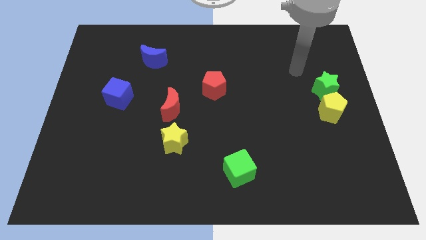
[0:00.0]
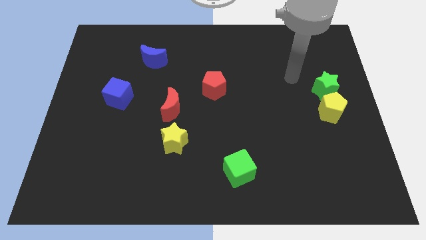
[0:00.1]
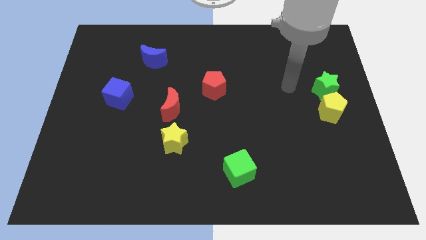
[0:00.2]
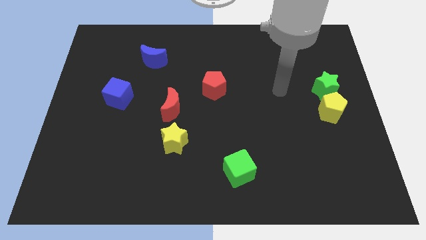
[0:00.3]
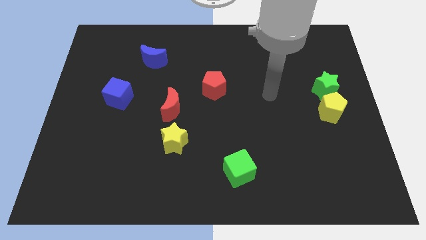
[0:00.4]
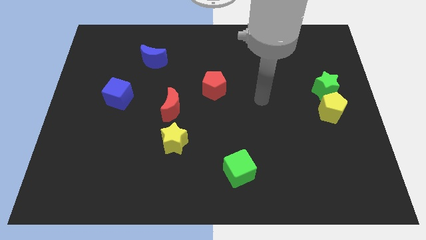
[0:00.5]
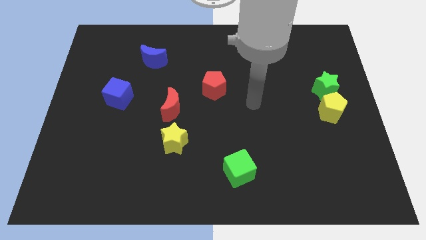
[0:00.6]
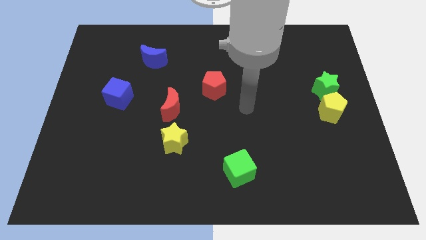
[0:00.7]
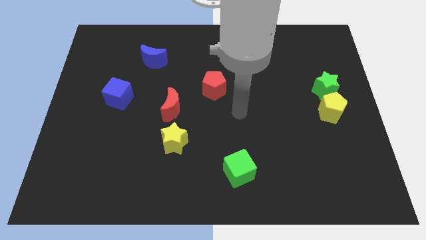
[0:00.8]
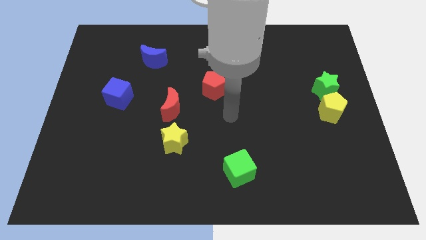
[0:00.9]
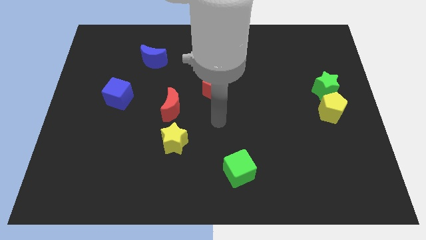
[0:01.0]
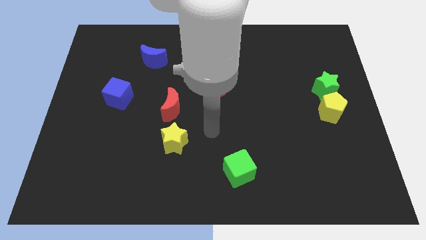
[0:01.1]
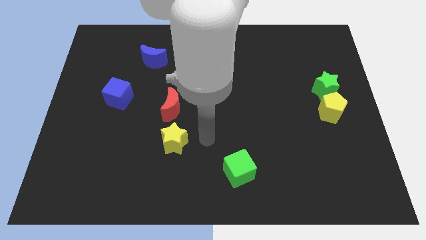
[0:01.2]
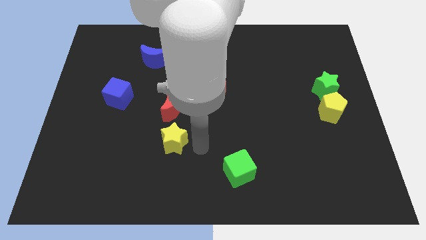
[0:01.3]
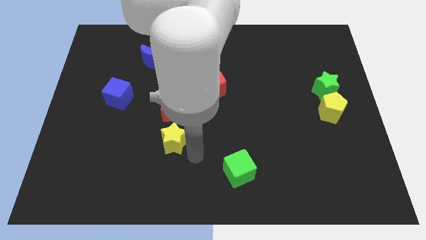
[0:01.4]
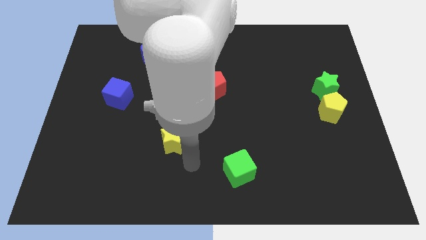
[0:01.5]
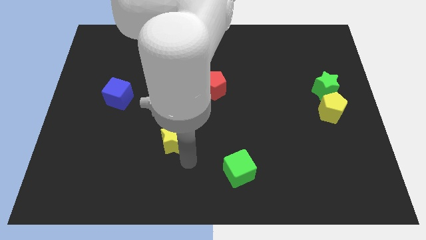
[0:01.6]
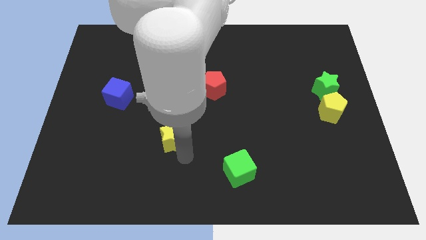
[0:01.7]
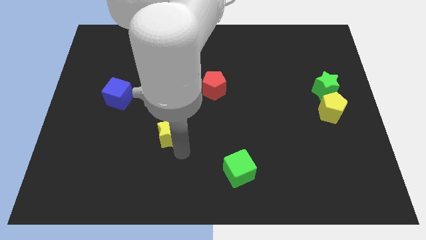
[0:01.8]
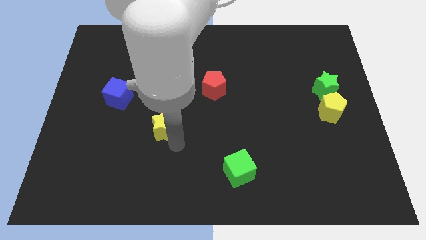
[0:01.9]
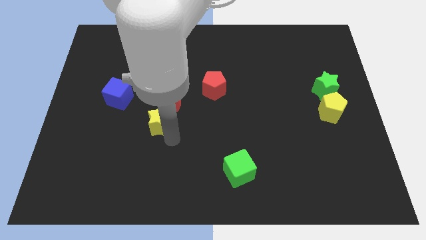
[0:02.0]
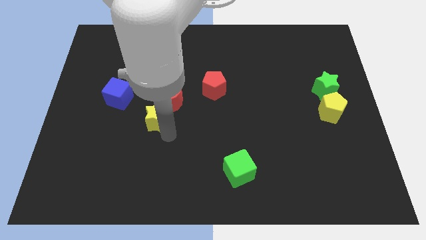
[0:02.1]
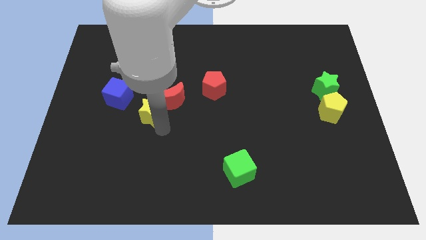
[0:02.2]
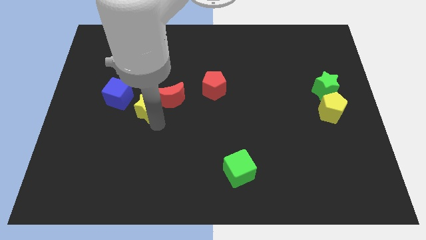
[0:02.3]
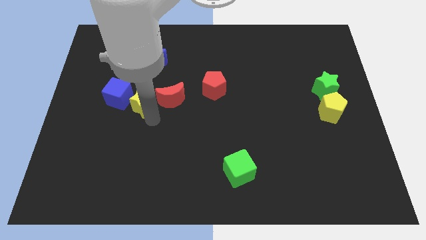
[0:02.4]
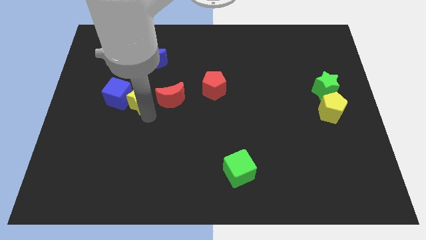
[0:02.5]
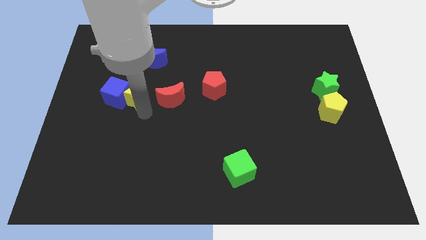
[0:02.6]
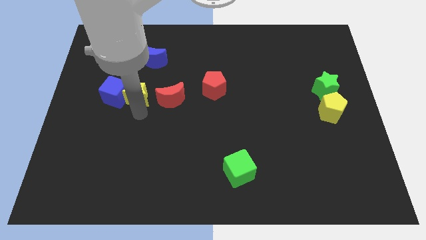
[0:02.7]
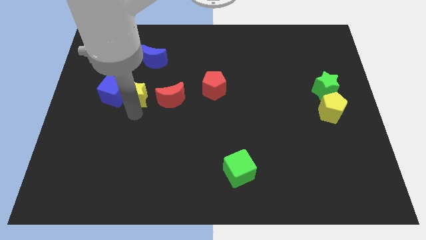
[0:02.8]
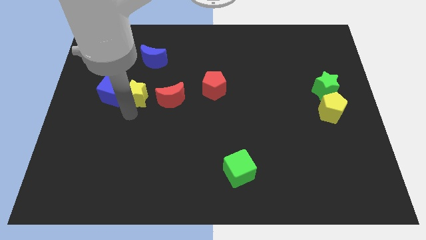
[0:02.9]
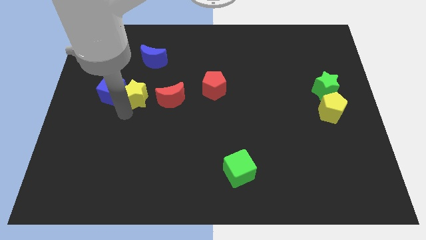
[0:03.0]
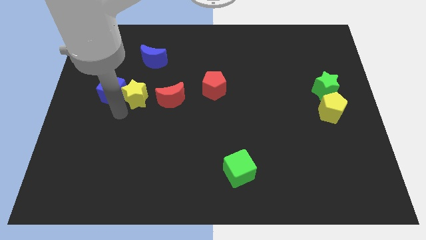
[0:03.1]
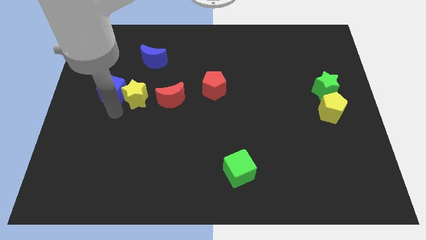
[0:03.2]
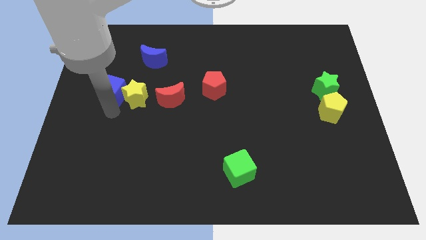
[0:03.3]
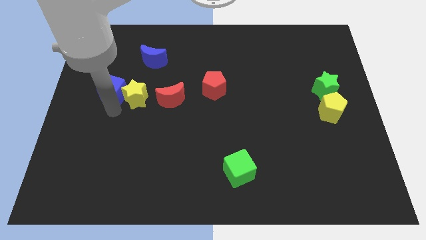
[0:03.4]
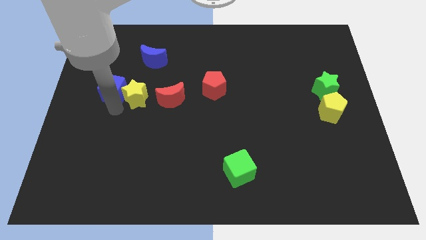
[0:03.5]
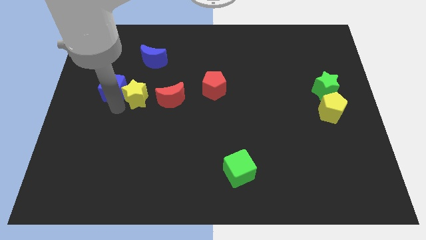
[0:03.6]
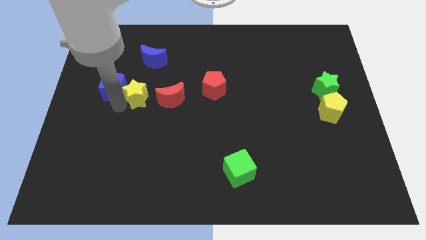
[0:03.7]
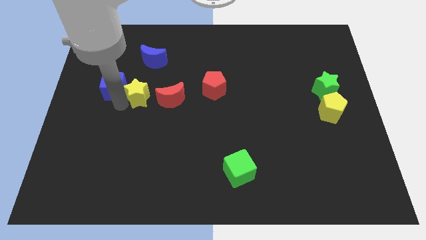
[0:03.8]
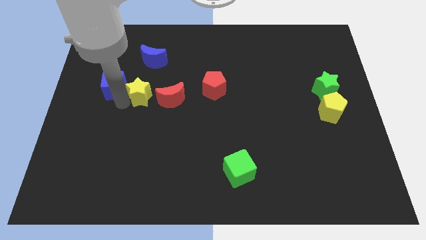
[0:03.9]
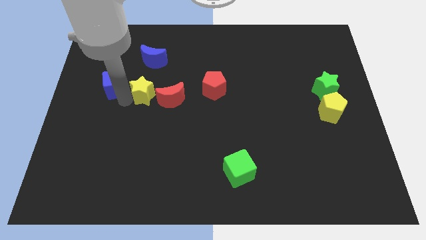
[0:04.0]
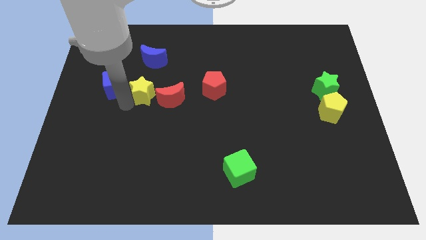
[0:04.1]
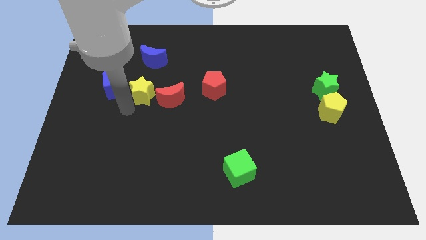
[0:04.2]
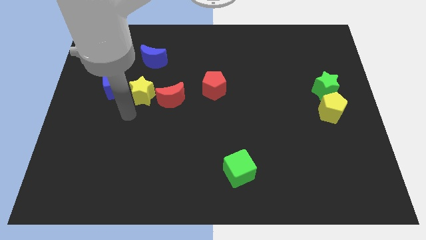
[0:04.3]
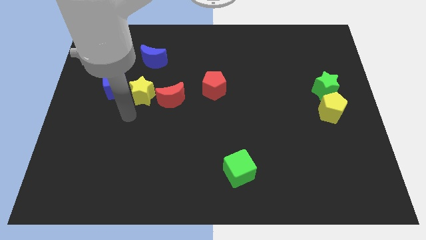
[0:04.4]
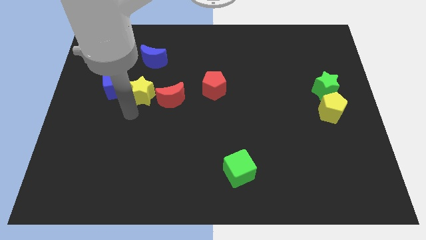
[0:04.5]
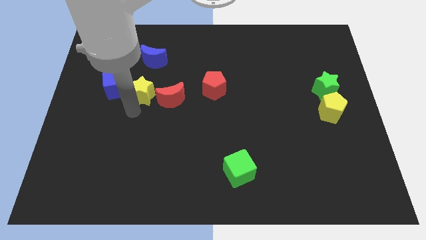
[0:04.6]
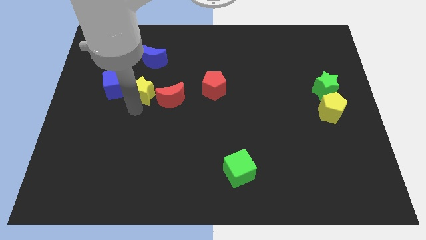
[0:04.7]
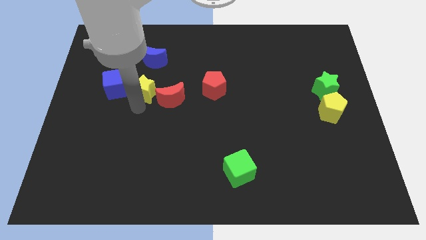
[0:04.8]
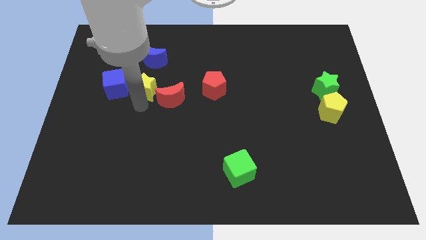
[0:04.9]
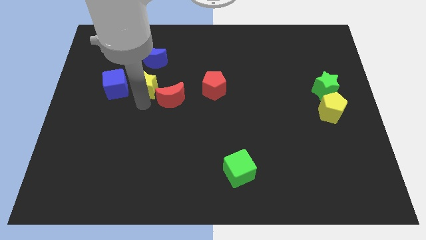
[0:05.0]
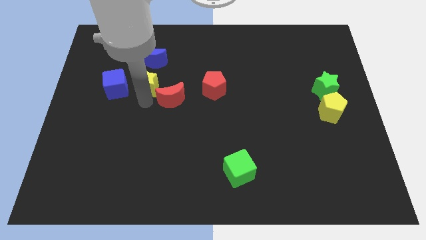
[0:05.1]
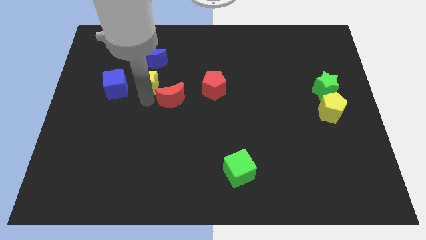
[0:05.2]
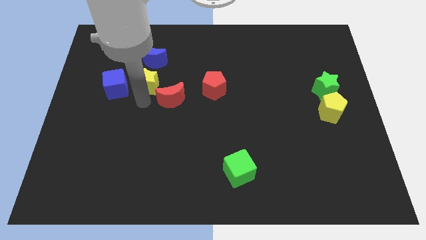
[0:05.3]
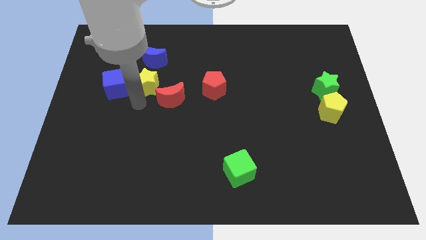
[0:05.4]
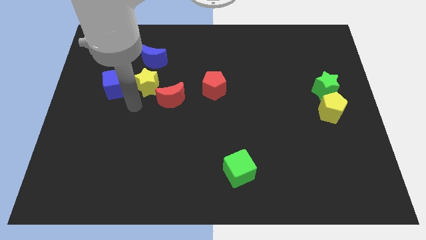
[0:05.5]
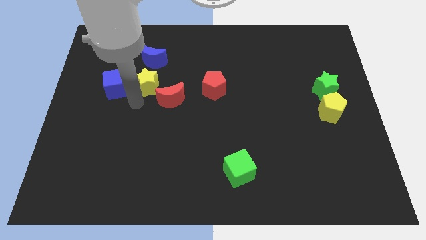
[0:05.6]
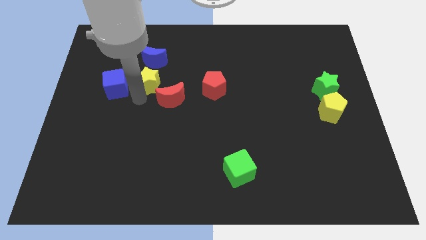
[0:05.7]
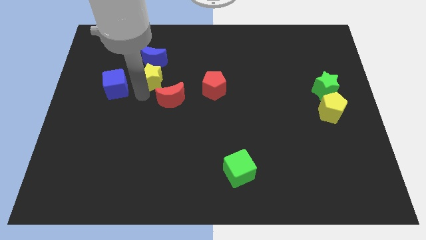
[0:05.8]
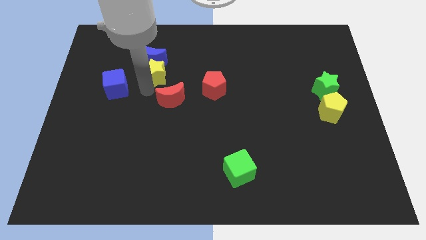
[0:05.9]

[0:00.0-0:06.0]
push the yellow star close to the blue moon
